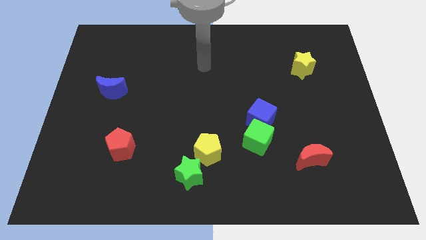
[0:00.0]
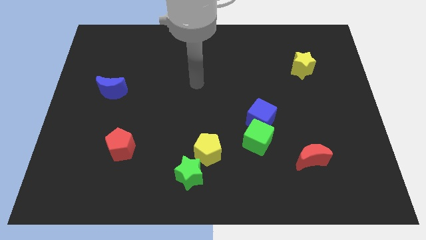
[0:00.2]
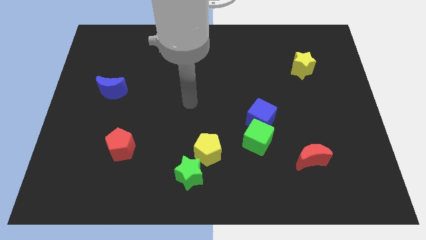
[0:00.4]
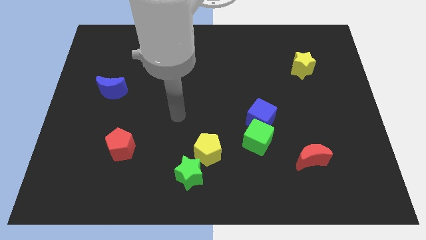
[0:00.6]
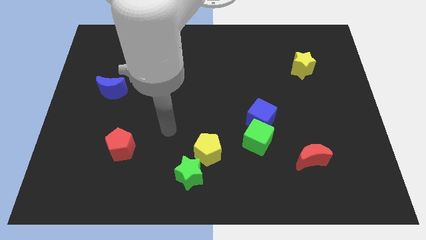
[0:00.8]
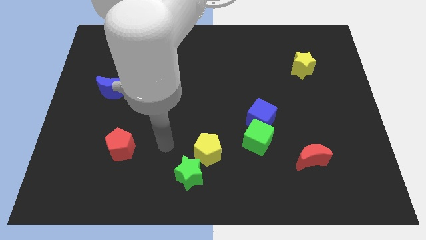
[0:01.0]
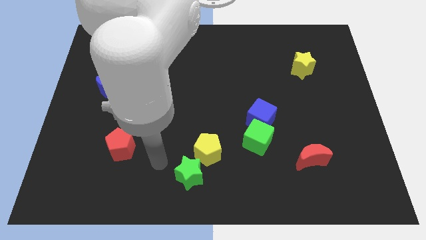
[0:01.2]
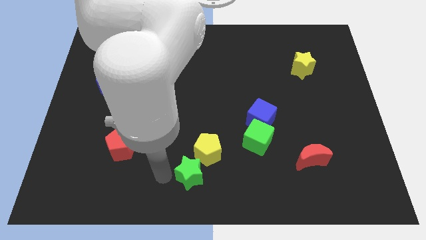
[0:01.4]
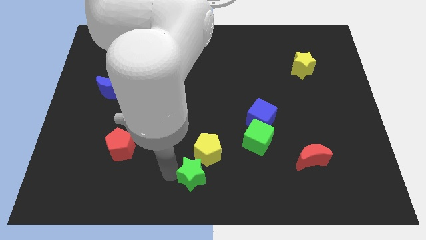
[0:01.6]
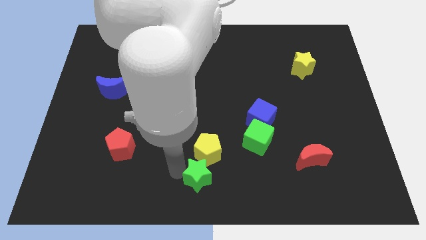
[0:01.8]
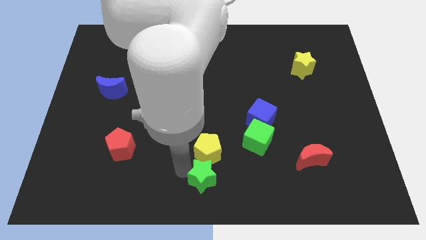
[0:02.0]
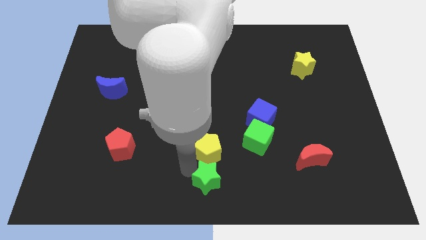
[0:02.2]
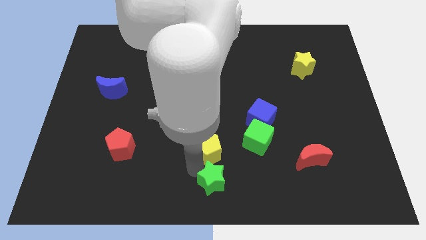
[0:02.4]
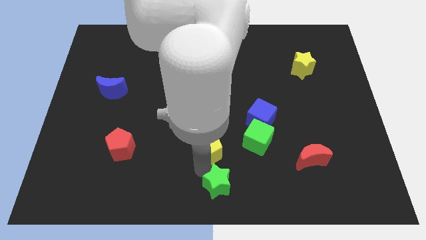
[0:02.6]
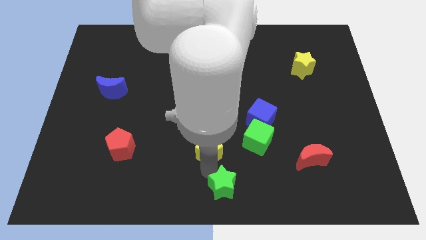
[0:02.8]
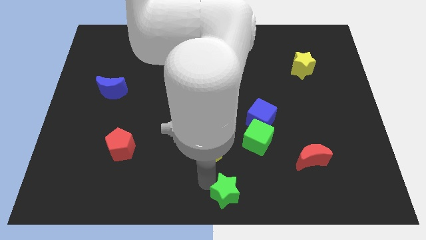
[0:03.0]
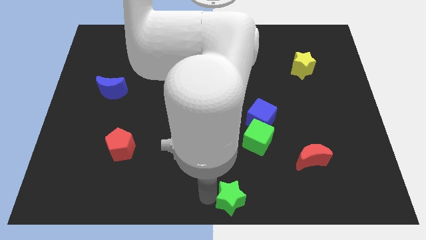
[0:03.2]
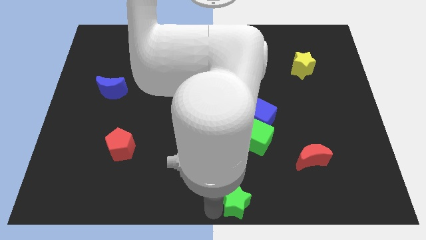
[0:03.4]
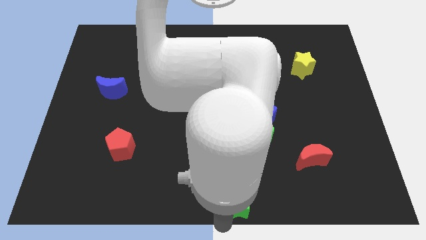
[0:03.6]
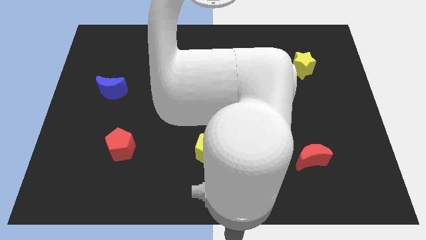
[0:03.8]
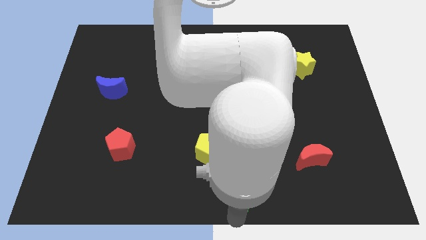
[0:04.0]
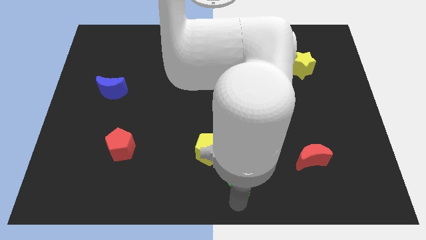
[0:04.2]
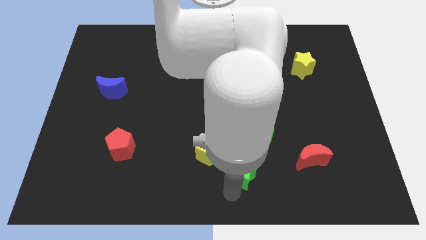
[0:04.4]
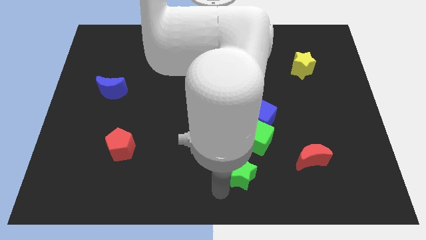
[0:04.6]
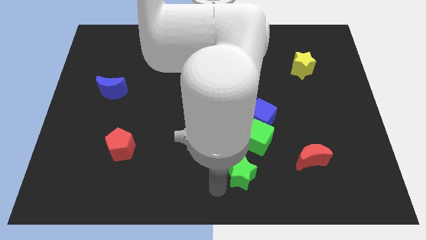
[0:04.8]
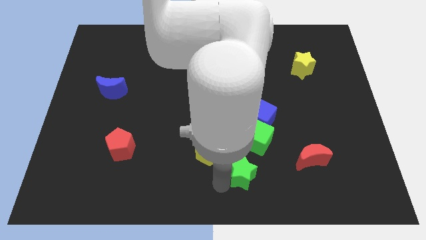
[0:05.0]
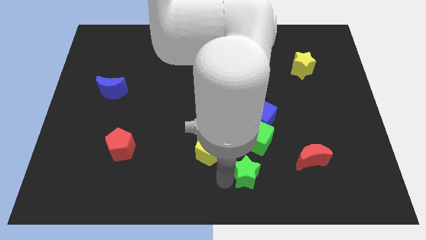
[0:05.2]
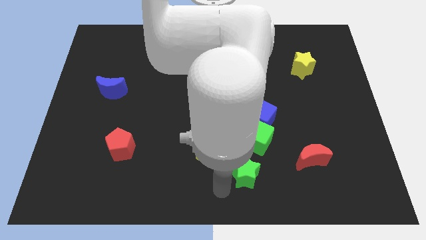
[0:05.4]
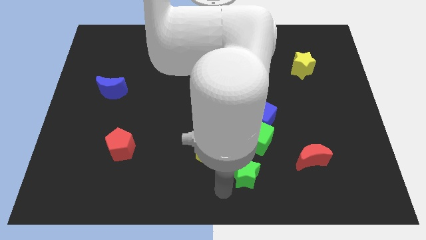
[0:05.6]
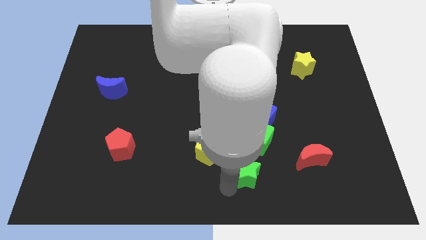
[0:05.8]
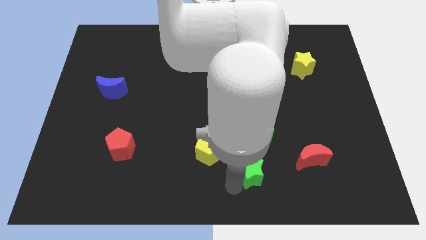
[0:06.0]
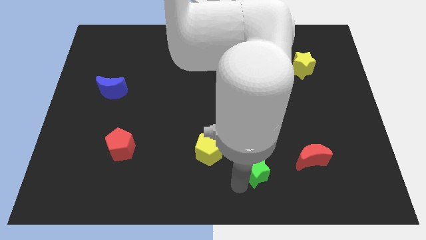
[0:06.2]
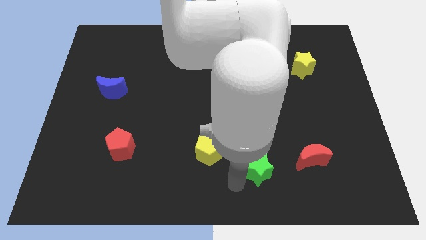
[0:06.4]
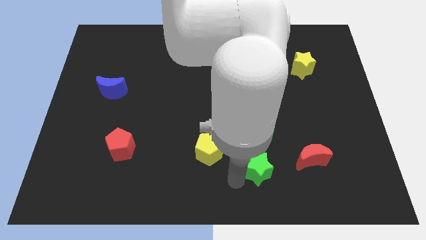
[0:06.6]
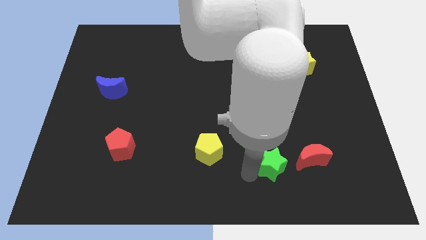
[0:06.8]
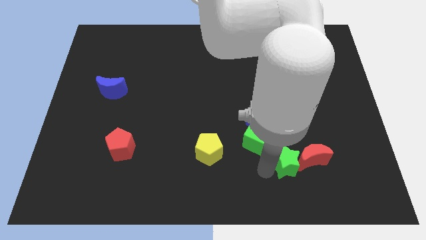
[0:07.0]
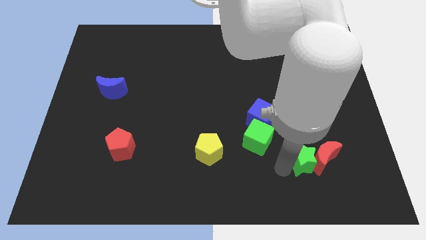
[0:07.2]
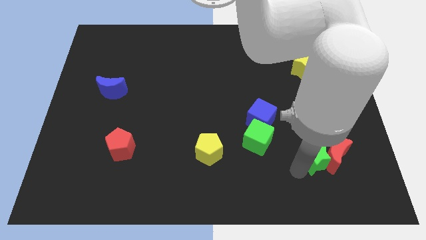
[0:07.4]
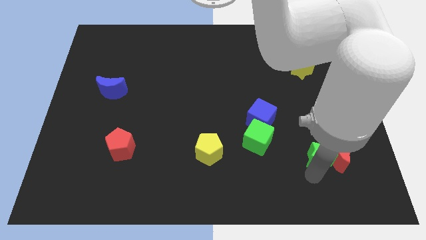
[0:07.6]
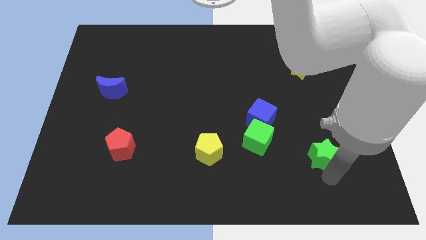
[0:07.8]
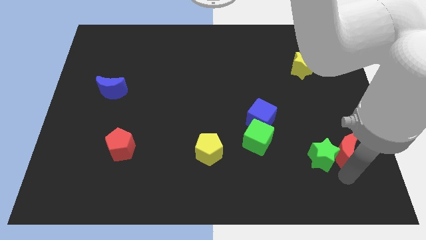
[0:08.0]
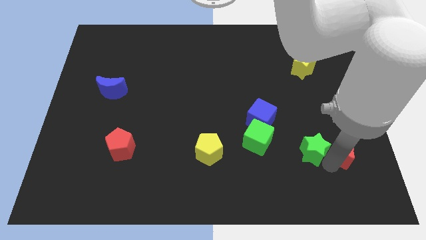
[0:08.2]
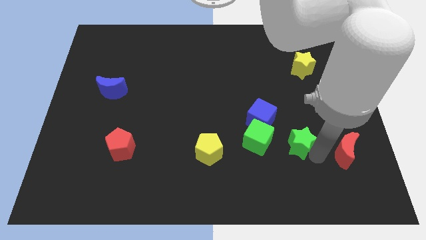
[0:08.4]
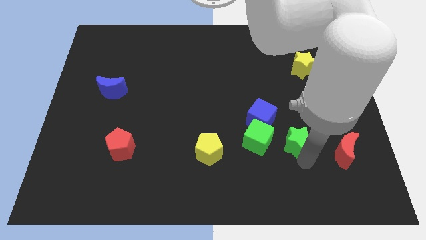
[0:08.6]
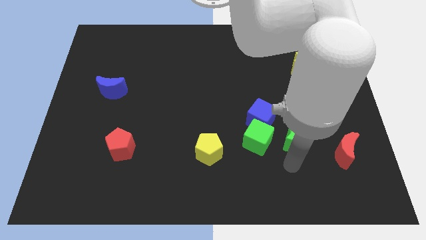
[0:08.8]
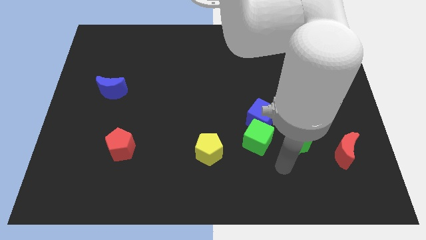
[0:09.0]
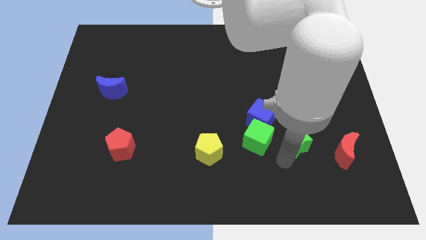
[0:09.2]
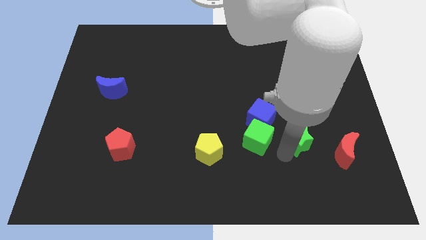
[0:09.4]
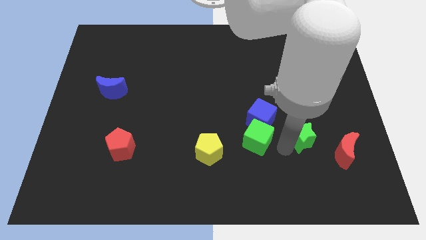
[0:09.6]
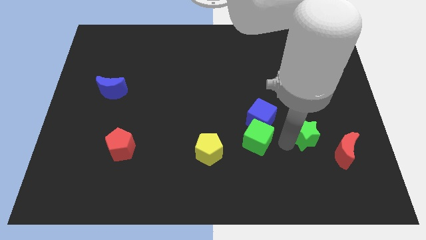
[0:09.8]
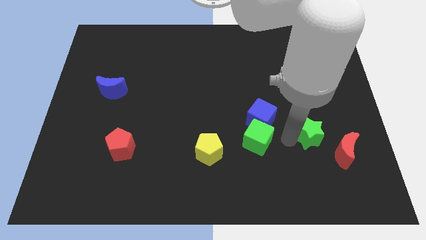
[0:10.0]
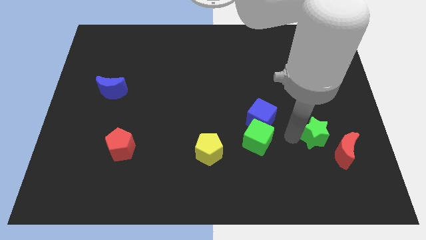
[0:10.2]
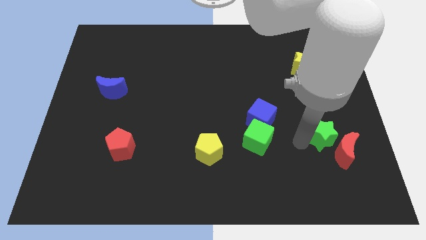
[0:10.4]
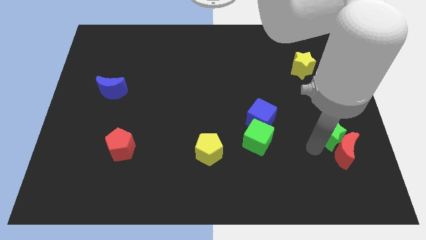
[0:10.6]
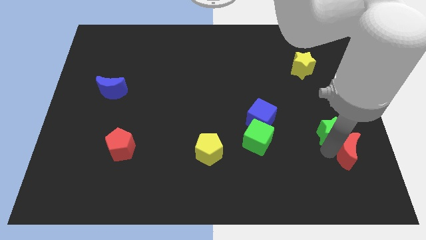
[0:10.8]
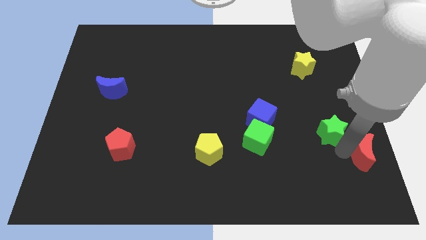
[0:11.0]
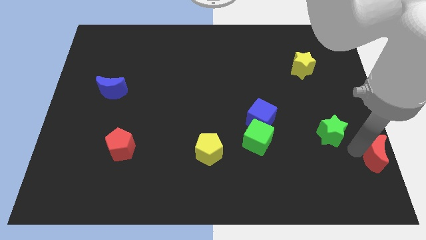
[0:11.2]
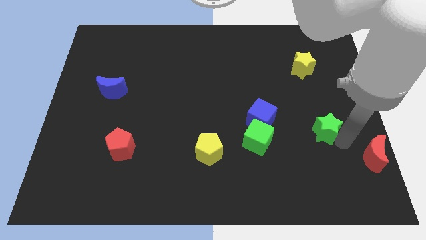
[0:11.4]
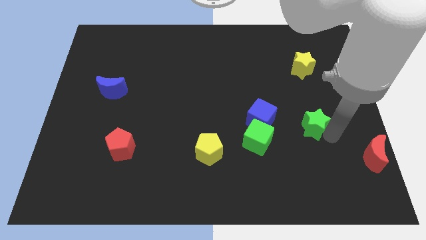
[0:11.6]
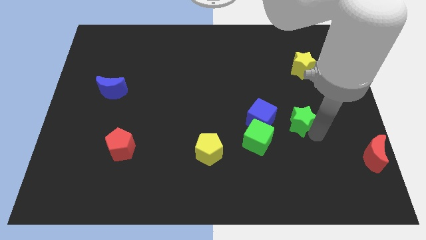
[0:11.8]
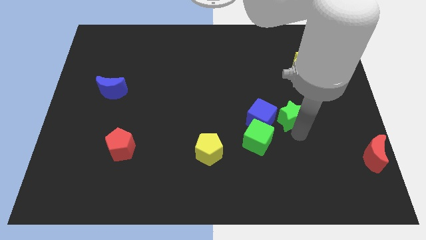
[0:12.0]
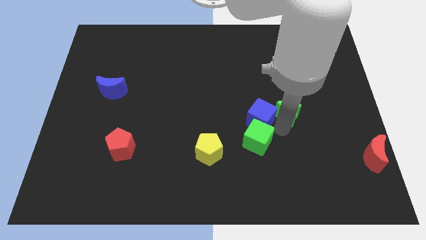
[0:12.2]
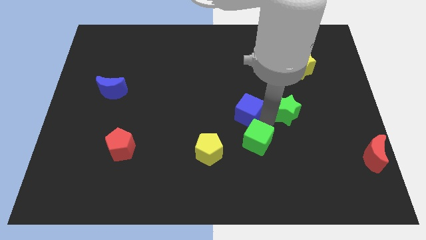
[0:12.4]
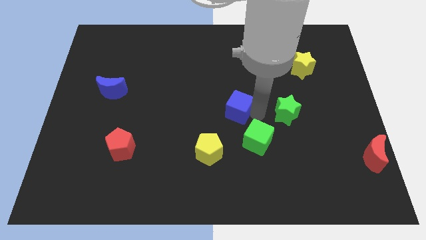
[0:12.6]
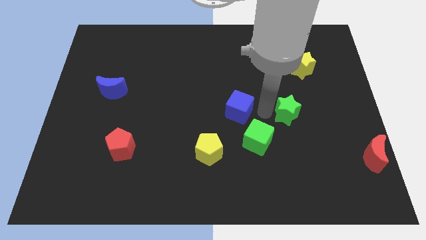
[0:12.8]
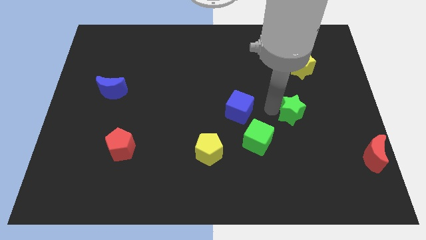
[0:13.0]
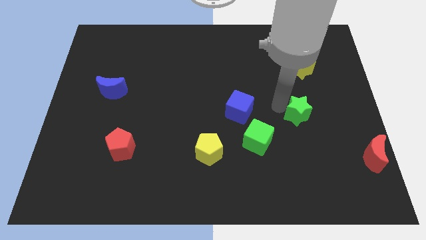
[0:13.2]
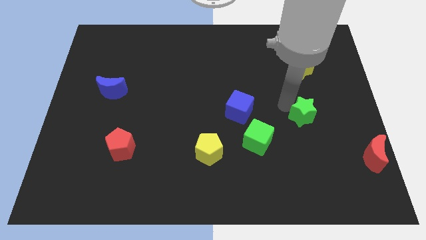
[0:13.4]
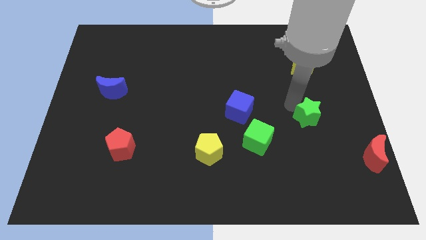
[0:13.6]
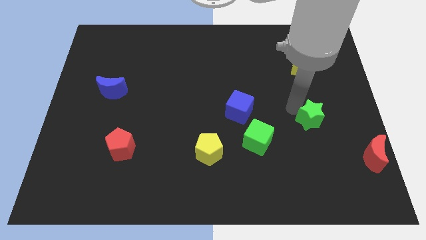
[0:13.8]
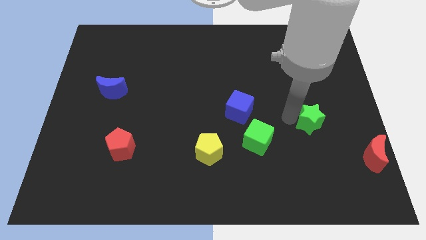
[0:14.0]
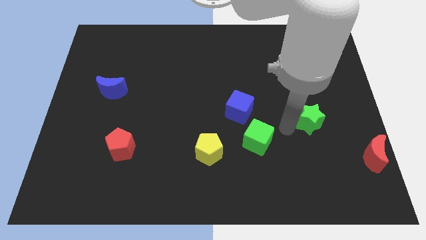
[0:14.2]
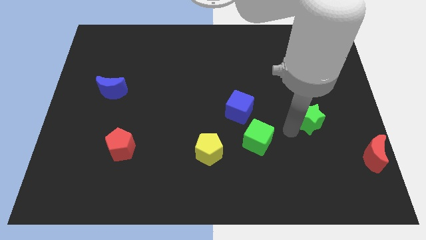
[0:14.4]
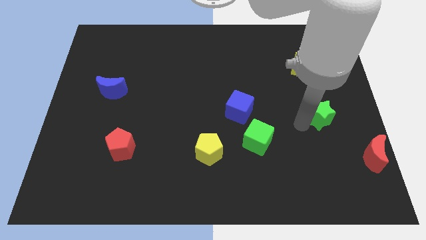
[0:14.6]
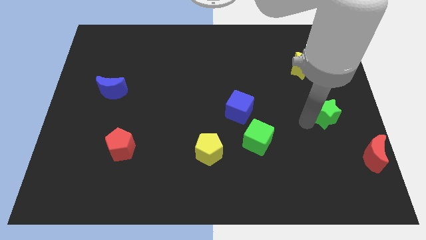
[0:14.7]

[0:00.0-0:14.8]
move the green star to the right side of the board
